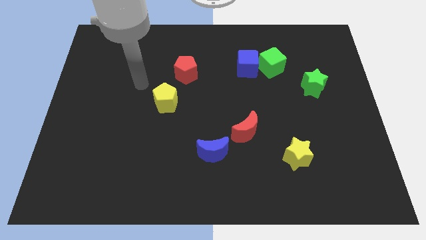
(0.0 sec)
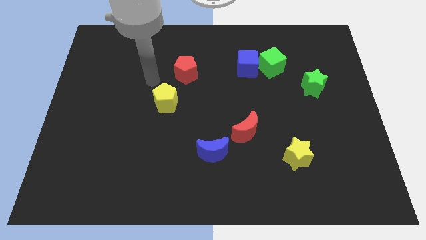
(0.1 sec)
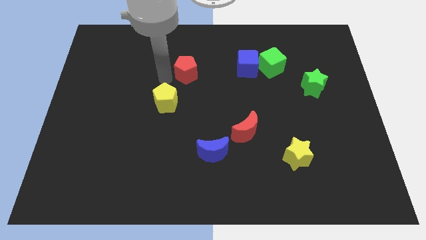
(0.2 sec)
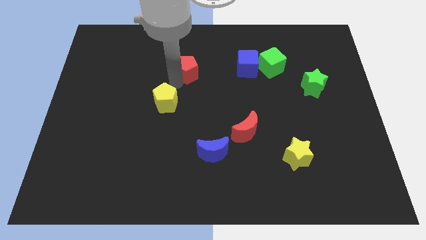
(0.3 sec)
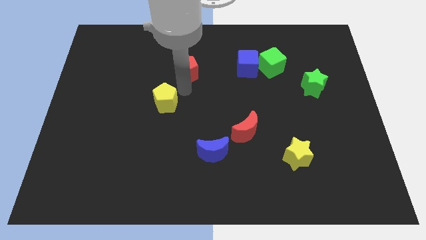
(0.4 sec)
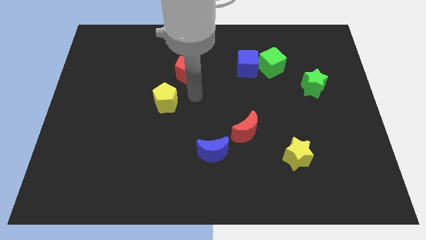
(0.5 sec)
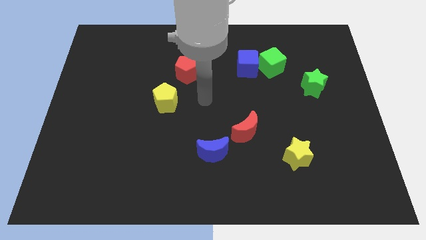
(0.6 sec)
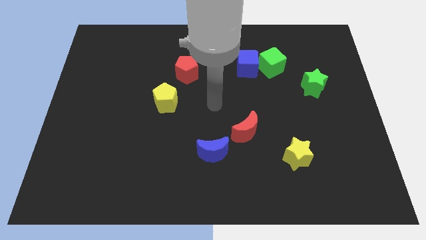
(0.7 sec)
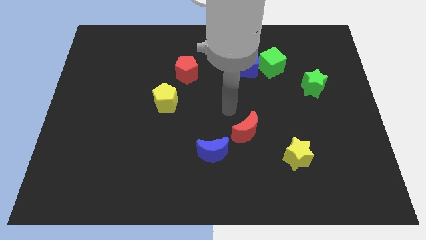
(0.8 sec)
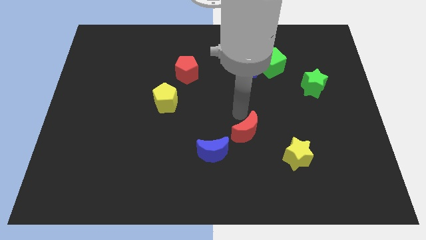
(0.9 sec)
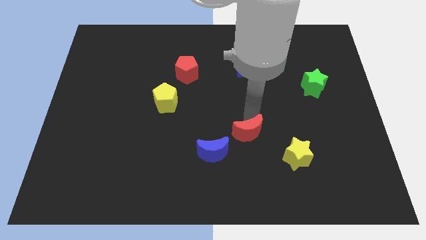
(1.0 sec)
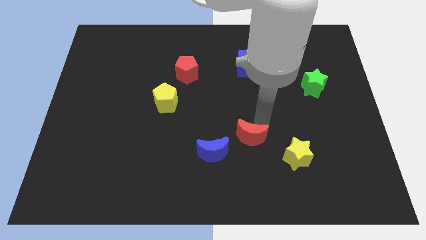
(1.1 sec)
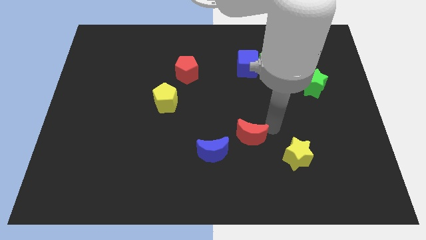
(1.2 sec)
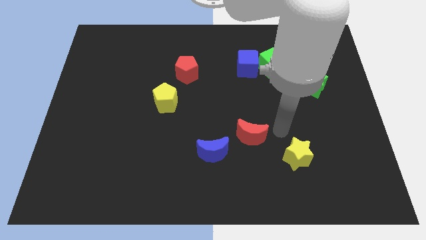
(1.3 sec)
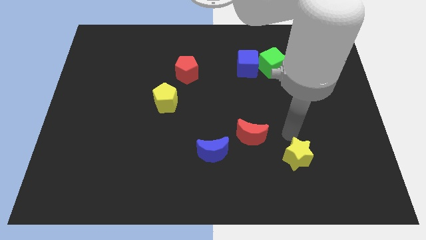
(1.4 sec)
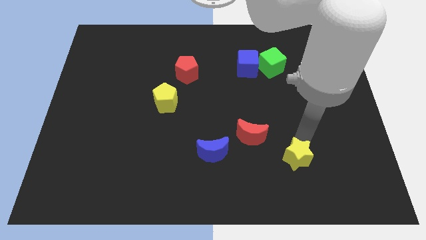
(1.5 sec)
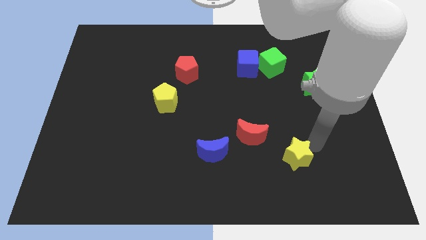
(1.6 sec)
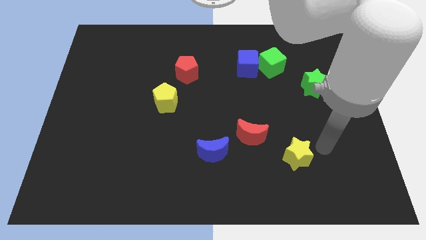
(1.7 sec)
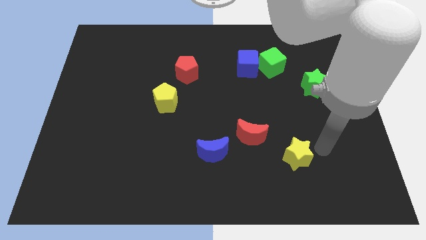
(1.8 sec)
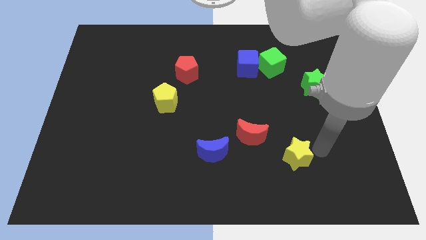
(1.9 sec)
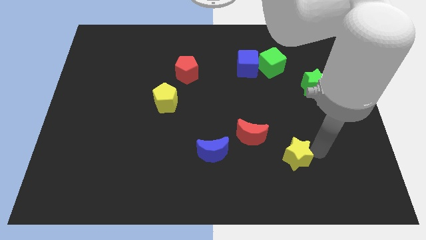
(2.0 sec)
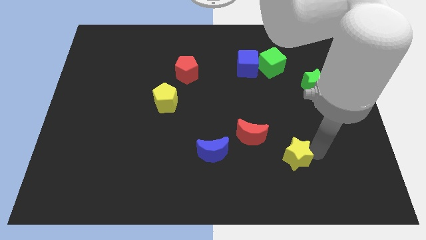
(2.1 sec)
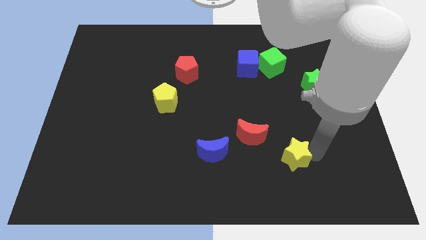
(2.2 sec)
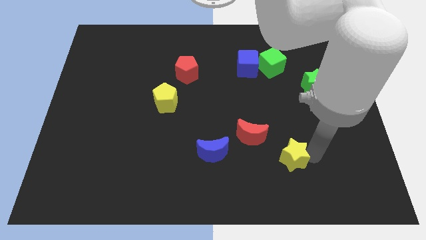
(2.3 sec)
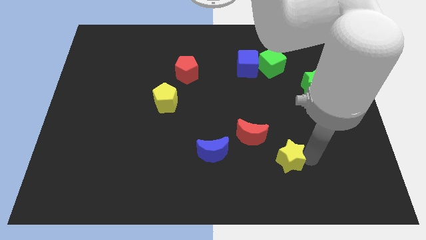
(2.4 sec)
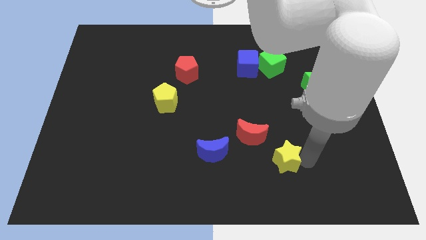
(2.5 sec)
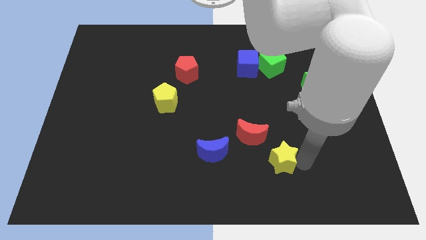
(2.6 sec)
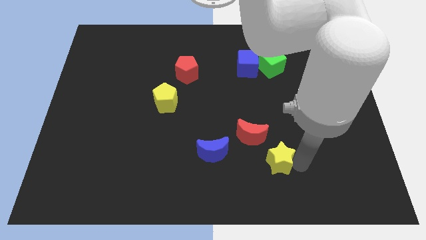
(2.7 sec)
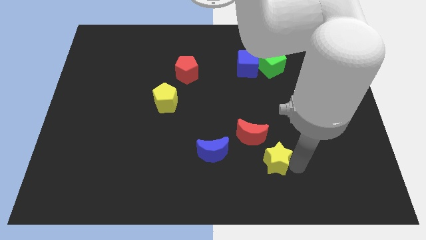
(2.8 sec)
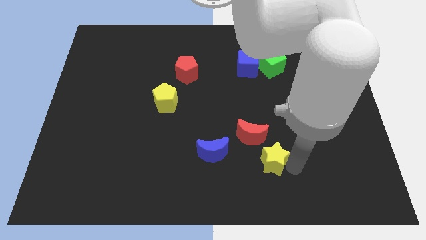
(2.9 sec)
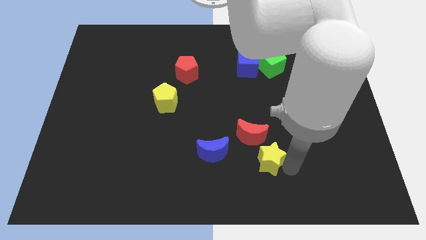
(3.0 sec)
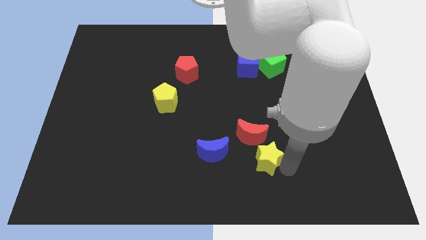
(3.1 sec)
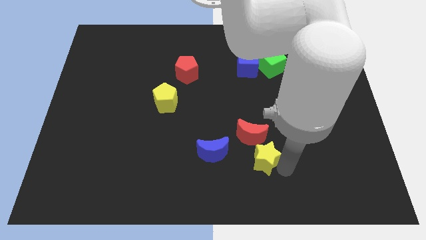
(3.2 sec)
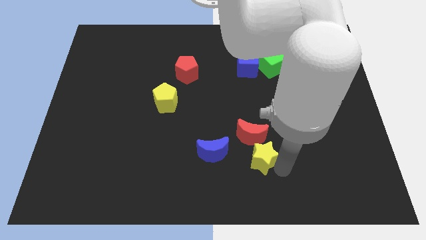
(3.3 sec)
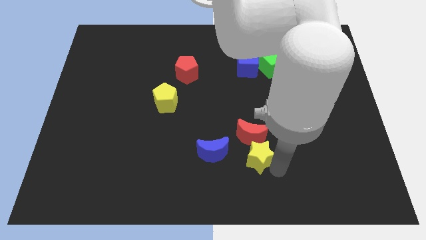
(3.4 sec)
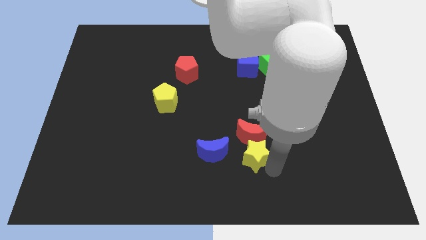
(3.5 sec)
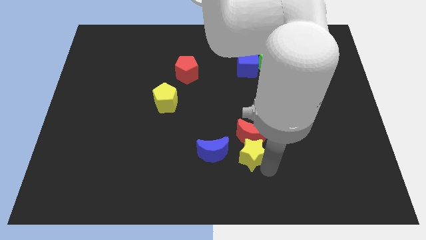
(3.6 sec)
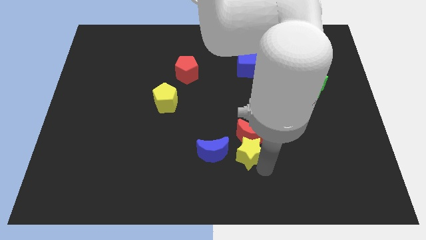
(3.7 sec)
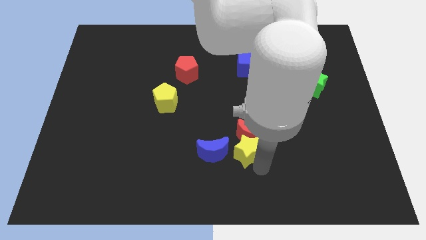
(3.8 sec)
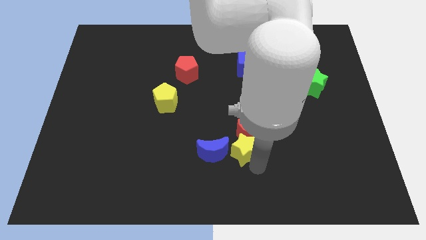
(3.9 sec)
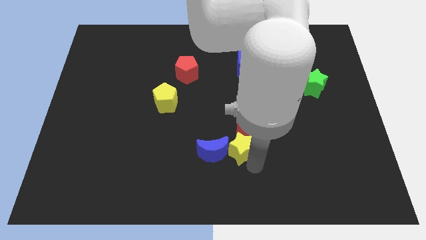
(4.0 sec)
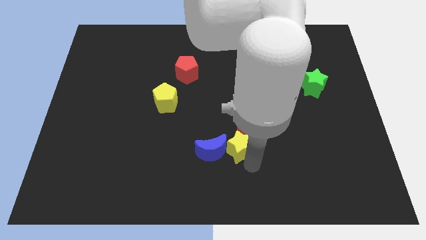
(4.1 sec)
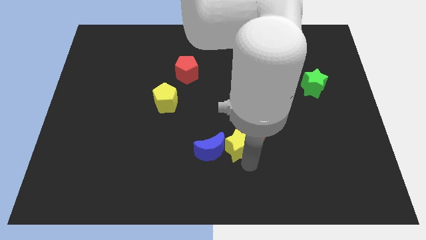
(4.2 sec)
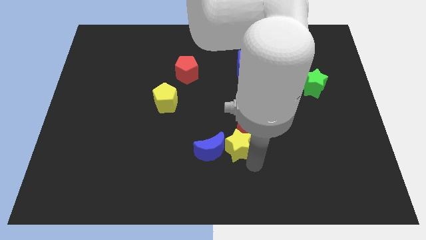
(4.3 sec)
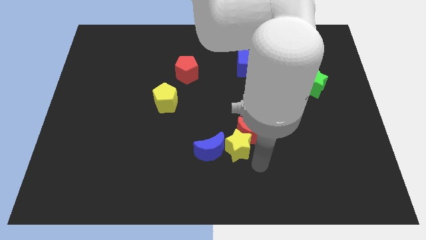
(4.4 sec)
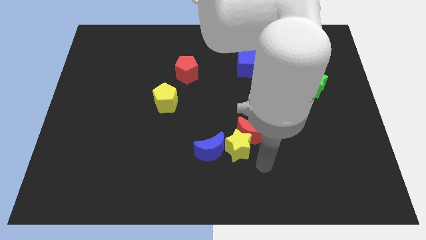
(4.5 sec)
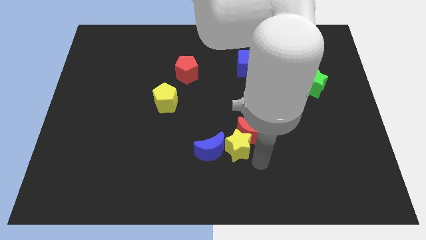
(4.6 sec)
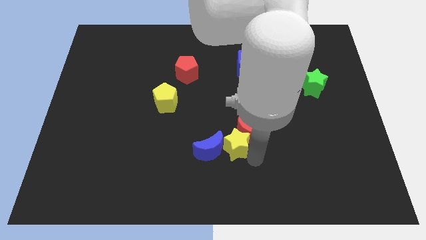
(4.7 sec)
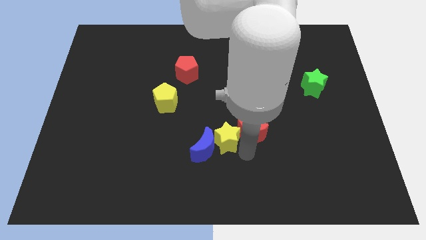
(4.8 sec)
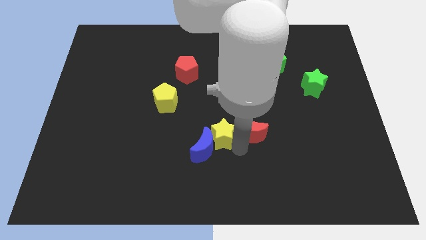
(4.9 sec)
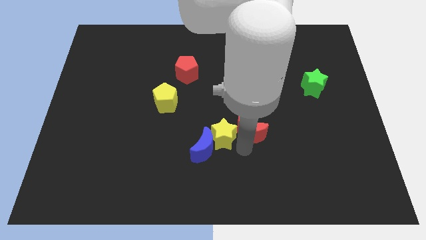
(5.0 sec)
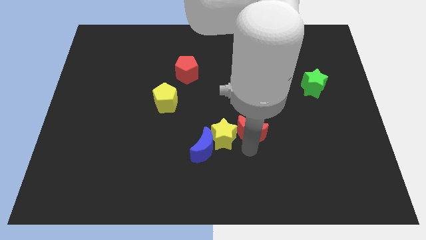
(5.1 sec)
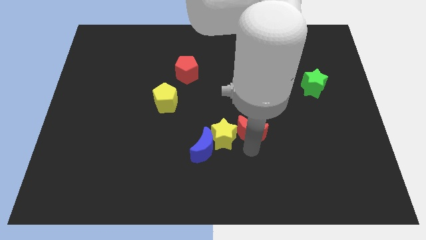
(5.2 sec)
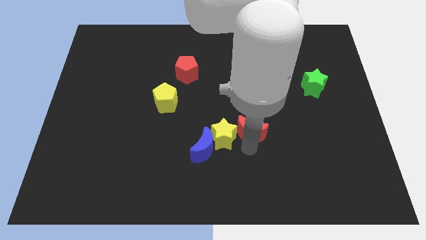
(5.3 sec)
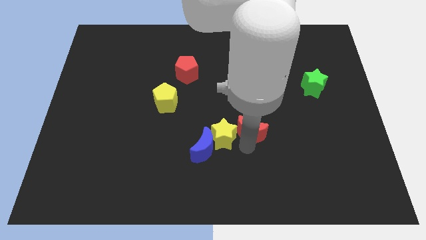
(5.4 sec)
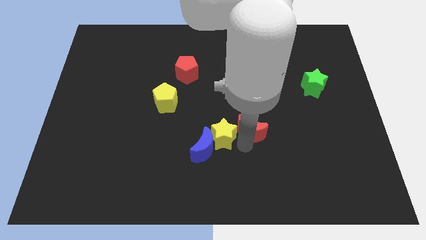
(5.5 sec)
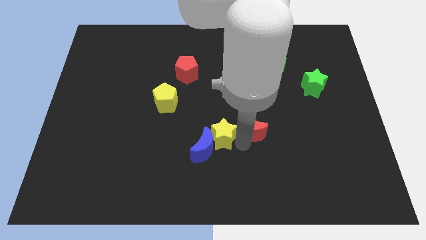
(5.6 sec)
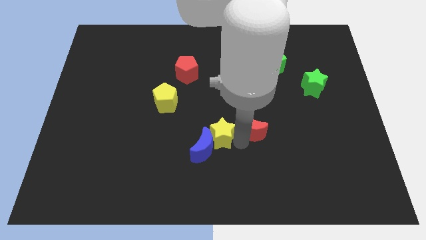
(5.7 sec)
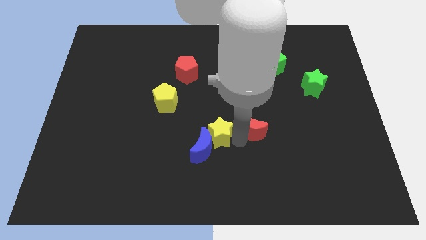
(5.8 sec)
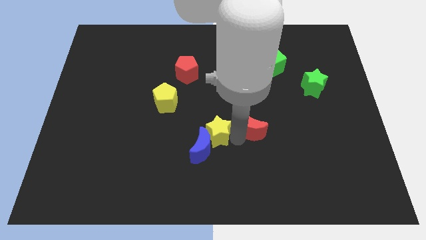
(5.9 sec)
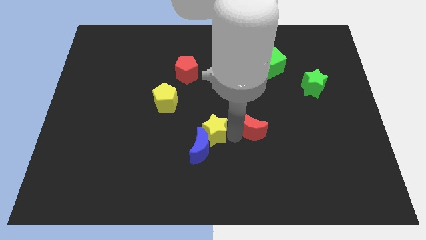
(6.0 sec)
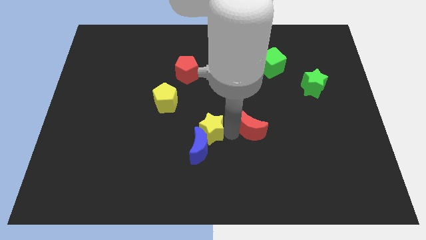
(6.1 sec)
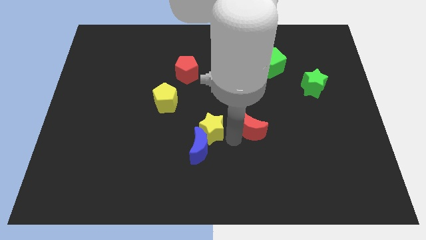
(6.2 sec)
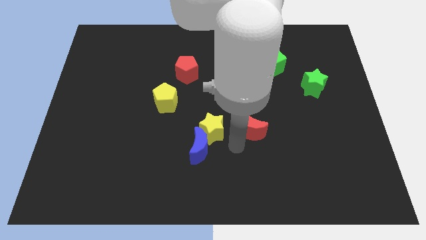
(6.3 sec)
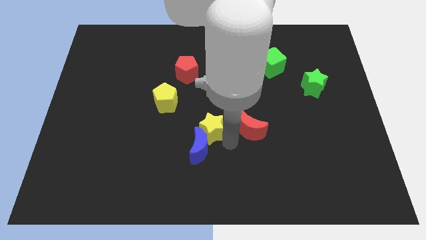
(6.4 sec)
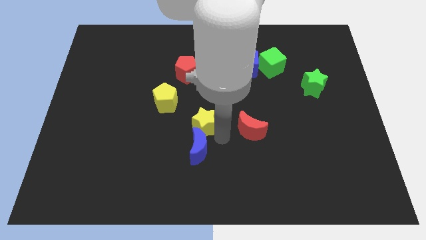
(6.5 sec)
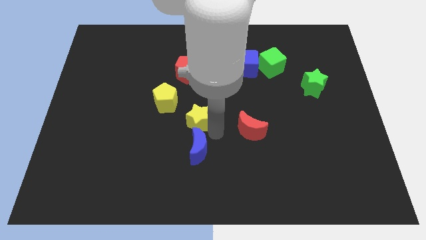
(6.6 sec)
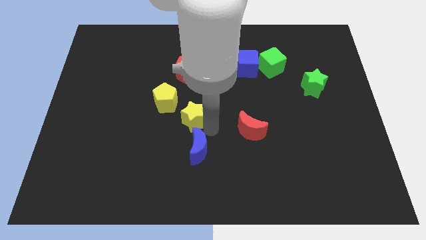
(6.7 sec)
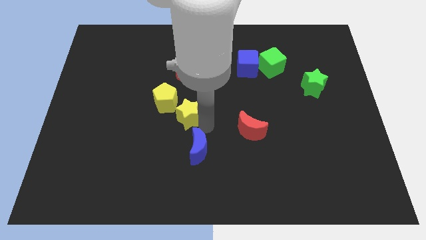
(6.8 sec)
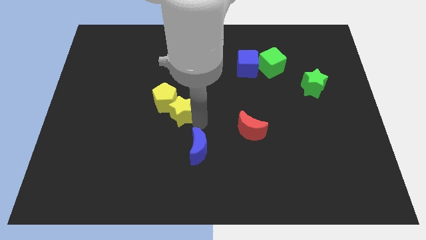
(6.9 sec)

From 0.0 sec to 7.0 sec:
push the yellow star next to the yellow pentagon

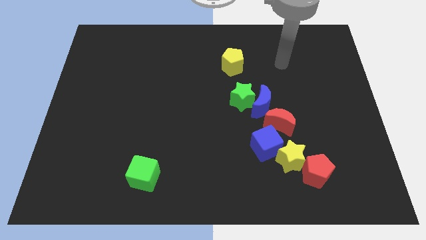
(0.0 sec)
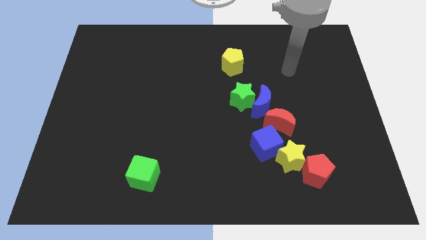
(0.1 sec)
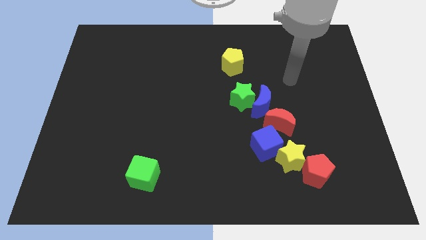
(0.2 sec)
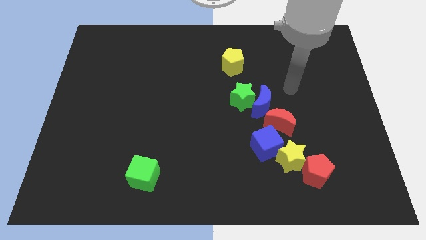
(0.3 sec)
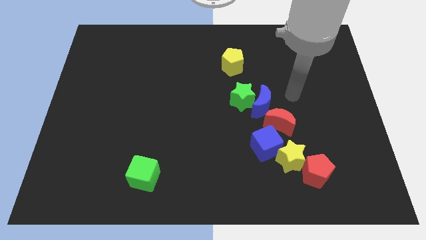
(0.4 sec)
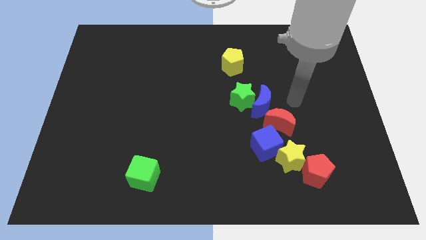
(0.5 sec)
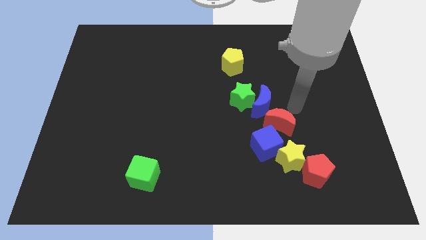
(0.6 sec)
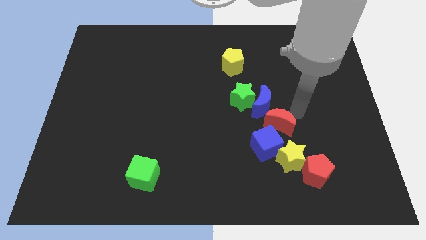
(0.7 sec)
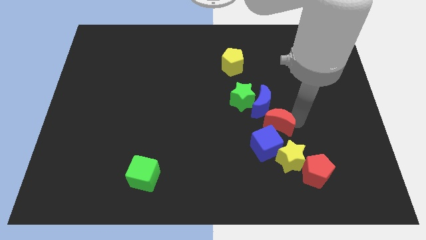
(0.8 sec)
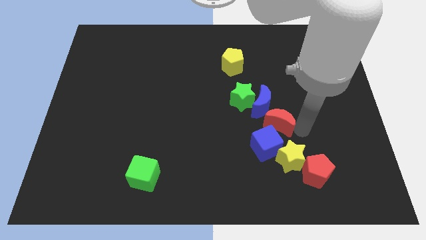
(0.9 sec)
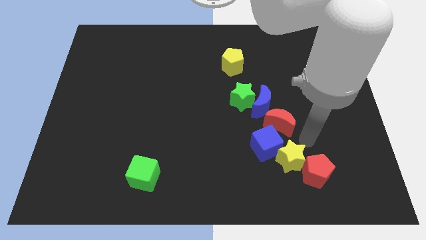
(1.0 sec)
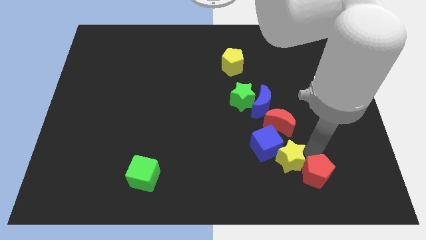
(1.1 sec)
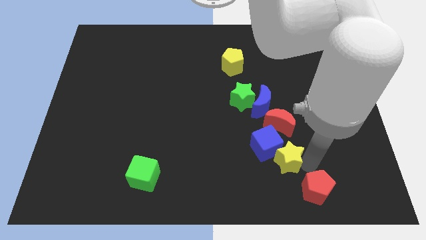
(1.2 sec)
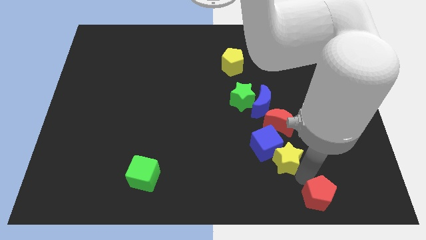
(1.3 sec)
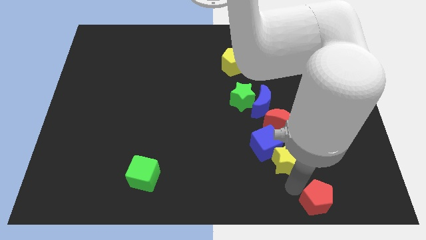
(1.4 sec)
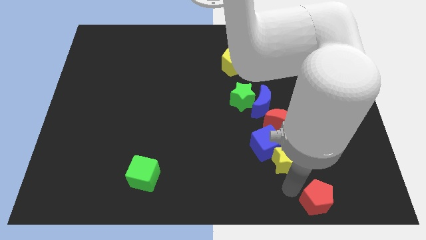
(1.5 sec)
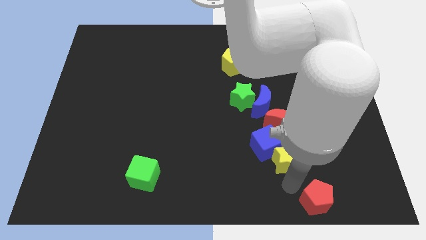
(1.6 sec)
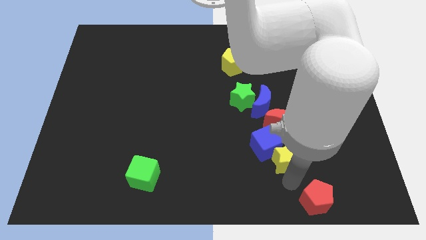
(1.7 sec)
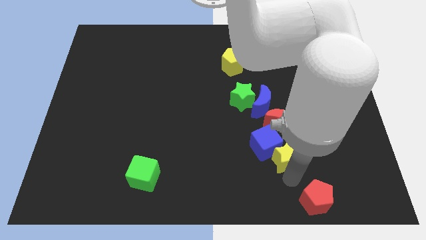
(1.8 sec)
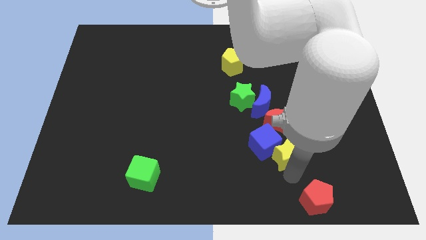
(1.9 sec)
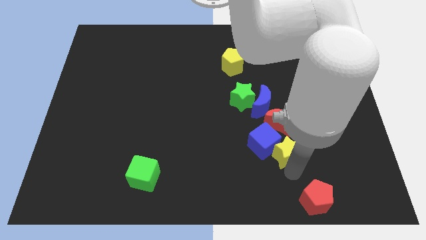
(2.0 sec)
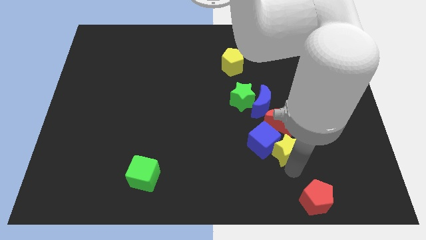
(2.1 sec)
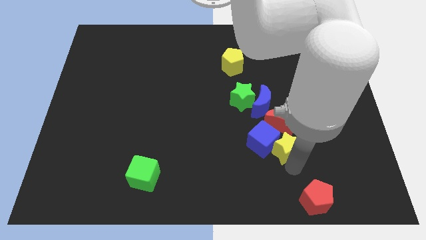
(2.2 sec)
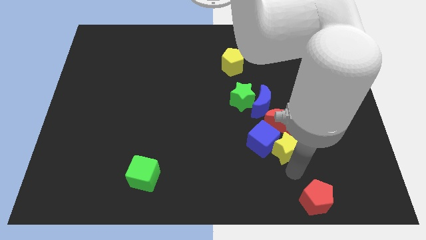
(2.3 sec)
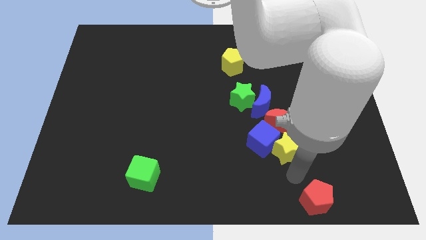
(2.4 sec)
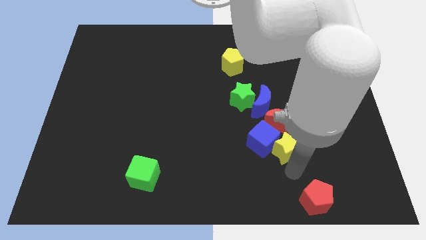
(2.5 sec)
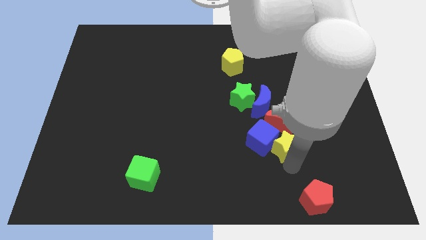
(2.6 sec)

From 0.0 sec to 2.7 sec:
slide the yellow star to the red moon
